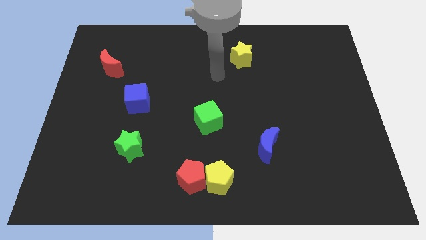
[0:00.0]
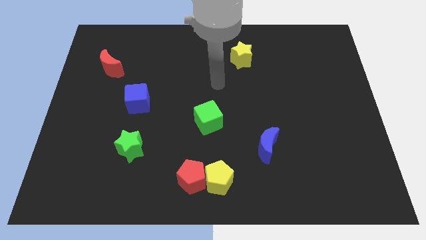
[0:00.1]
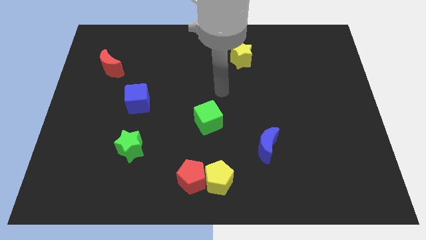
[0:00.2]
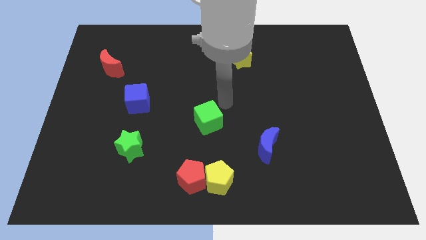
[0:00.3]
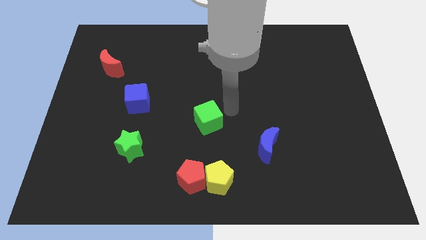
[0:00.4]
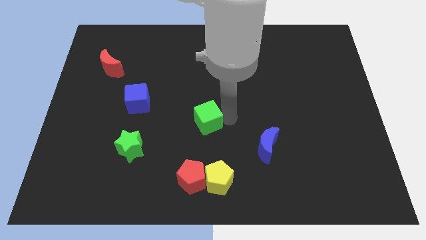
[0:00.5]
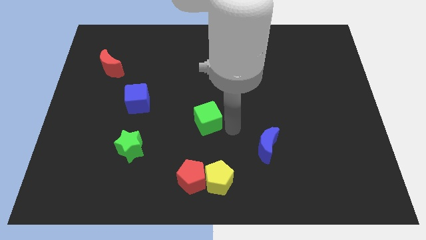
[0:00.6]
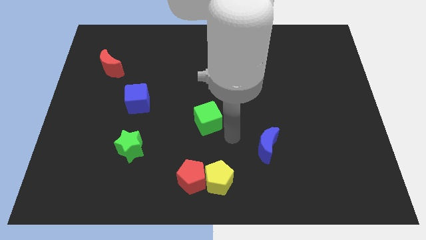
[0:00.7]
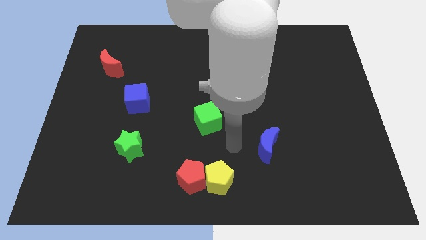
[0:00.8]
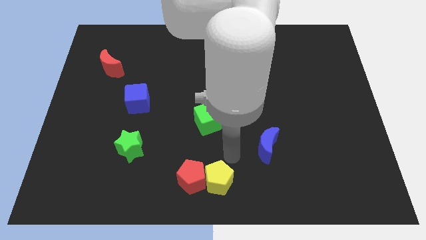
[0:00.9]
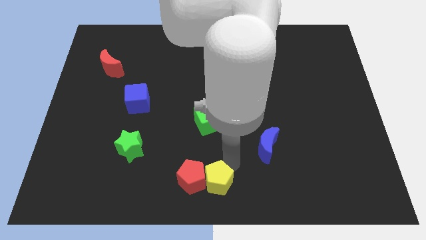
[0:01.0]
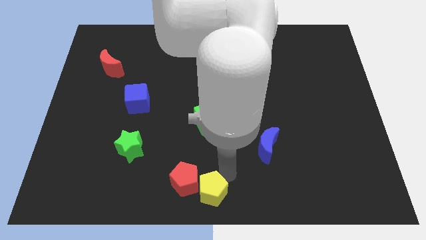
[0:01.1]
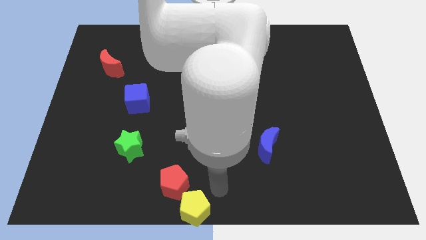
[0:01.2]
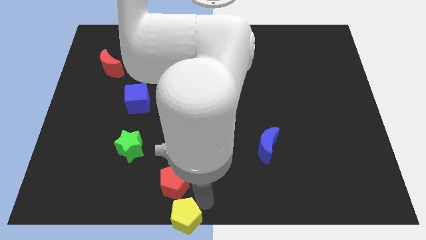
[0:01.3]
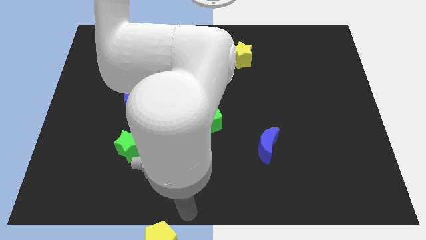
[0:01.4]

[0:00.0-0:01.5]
pull the red pentagon apart from the yellow pentagon

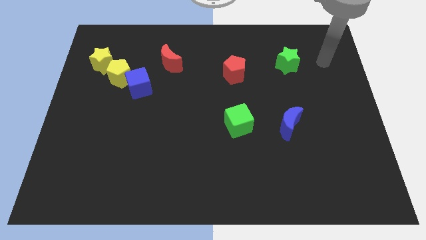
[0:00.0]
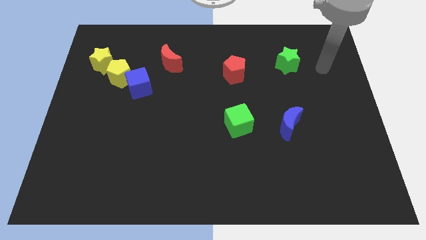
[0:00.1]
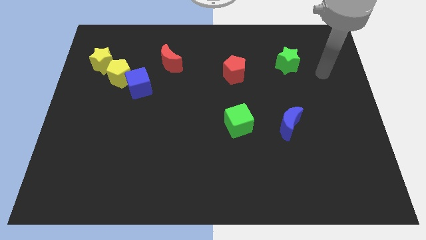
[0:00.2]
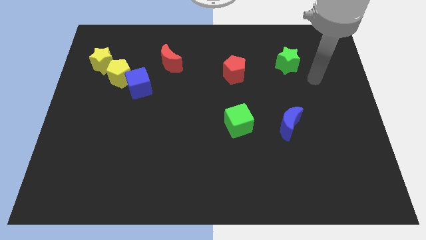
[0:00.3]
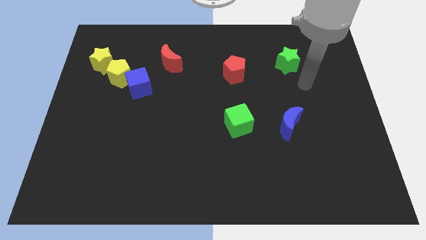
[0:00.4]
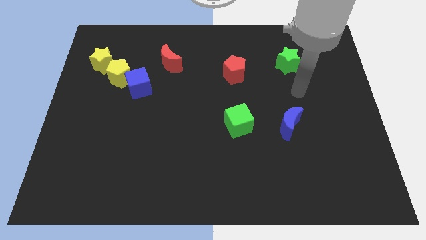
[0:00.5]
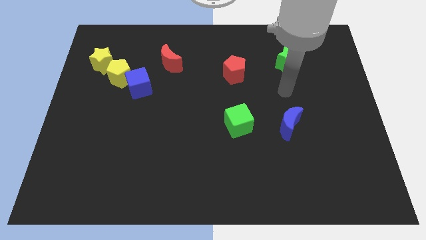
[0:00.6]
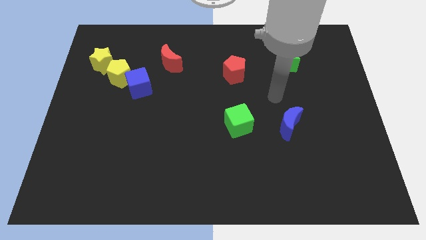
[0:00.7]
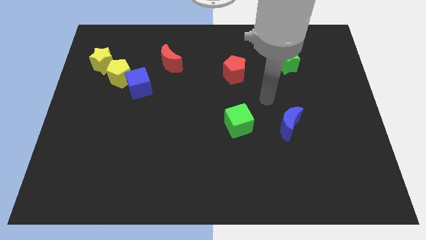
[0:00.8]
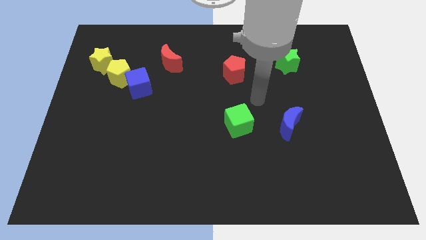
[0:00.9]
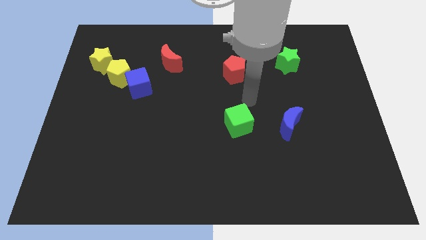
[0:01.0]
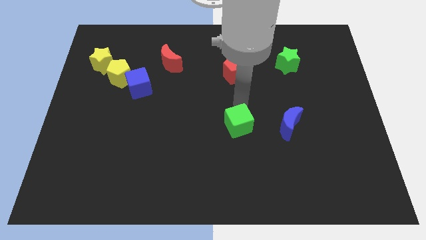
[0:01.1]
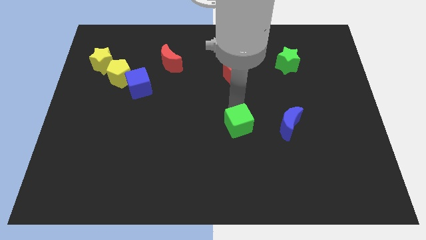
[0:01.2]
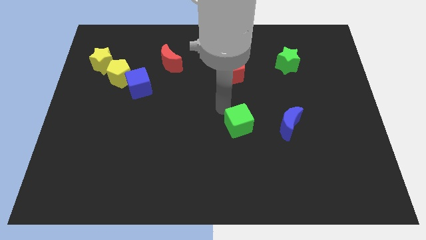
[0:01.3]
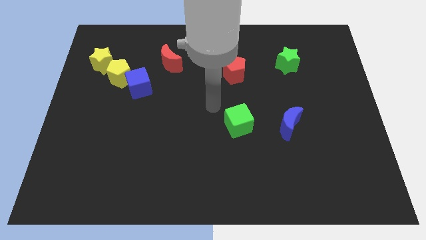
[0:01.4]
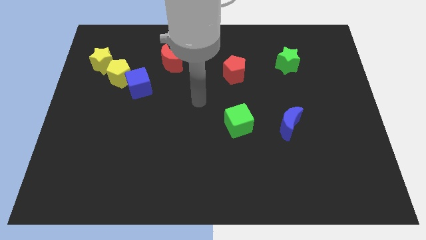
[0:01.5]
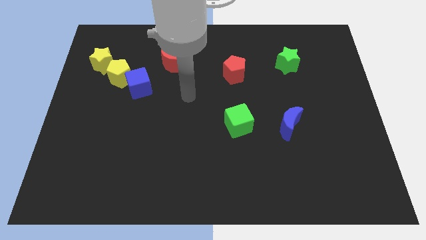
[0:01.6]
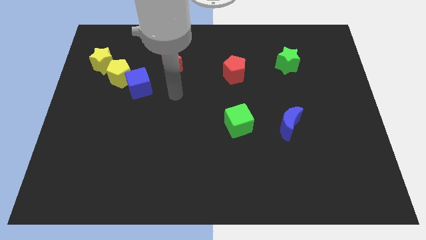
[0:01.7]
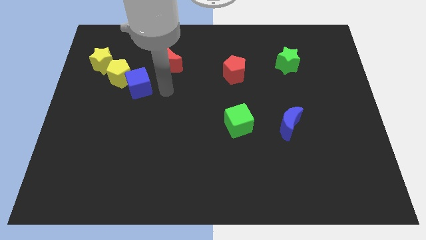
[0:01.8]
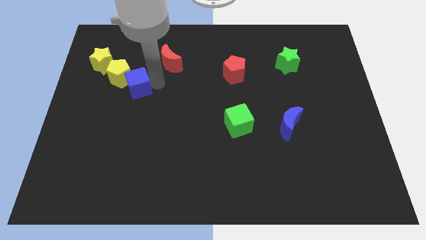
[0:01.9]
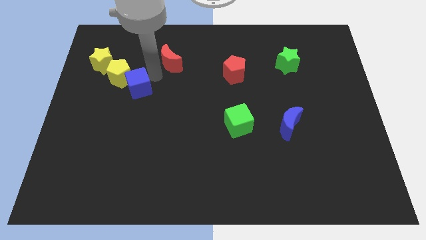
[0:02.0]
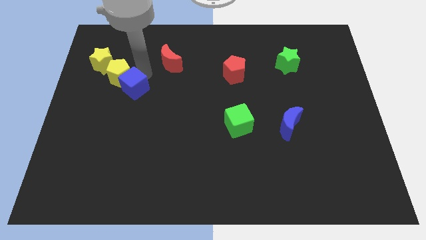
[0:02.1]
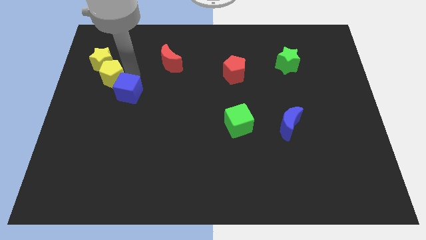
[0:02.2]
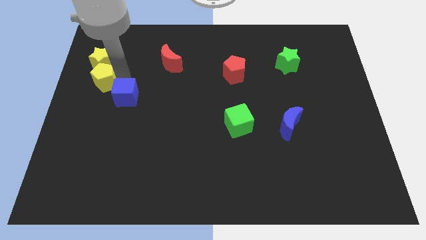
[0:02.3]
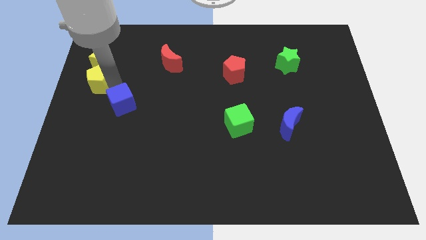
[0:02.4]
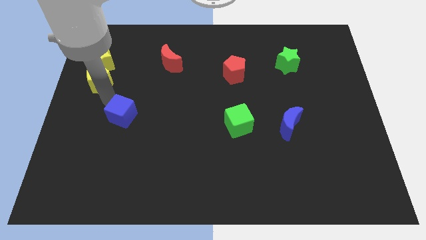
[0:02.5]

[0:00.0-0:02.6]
move the blue cube away from the yellow pentagon

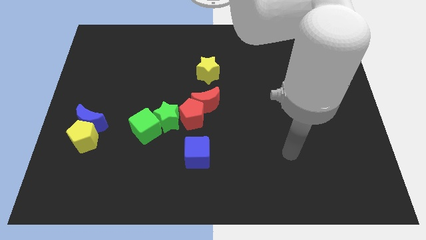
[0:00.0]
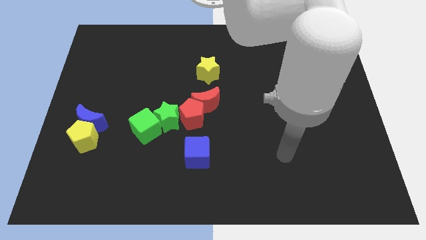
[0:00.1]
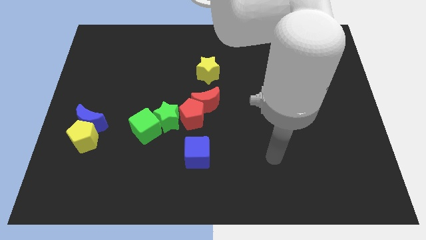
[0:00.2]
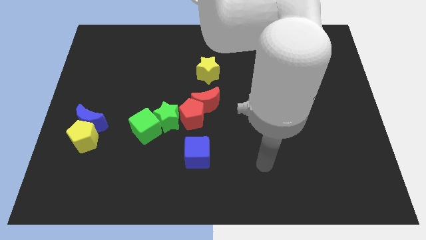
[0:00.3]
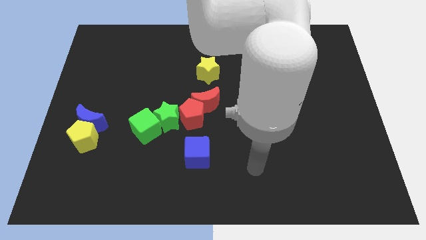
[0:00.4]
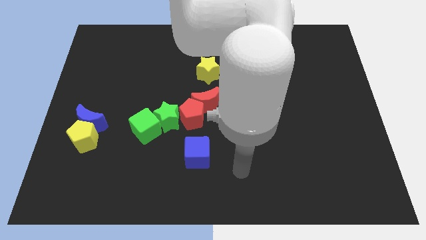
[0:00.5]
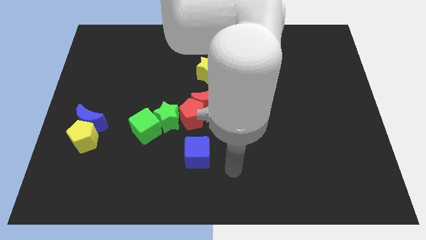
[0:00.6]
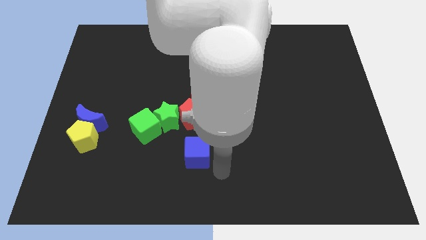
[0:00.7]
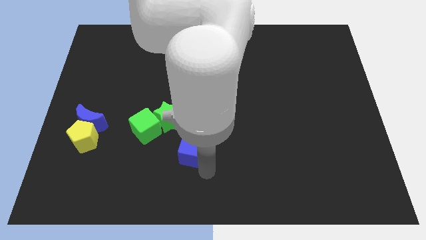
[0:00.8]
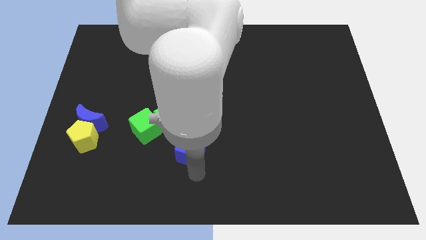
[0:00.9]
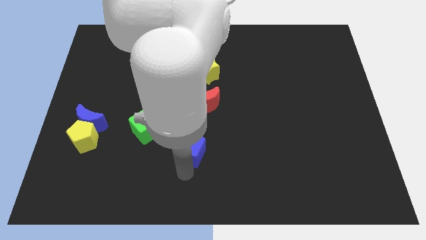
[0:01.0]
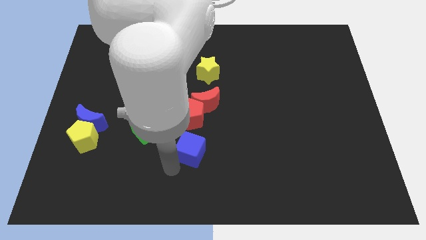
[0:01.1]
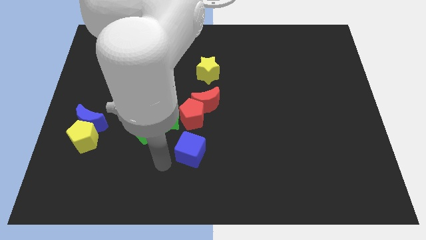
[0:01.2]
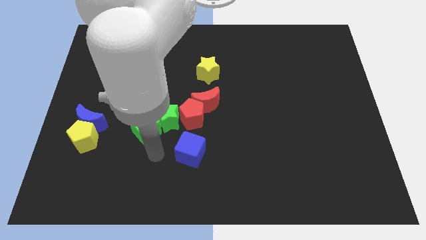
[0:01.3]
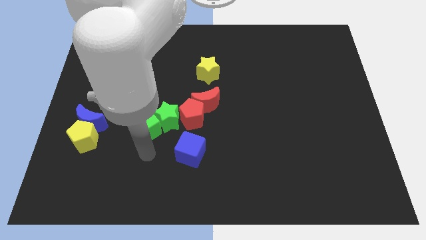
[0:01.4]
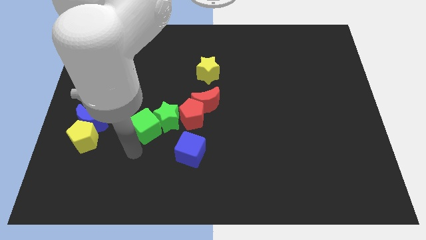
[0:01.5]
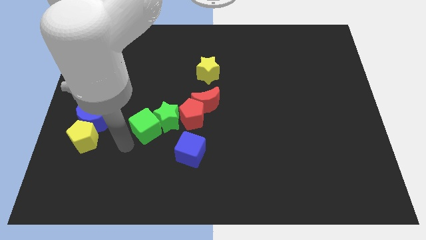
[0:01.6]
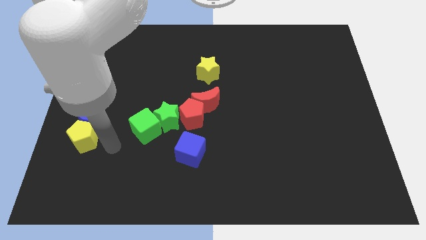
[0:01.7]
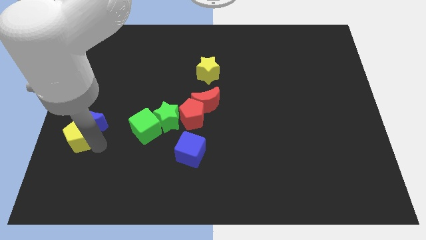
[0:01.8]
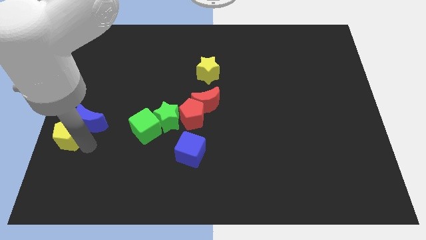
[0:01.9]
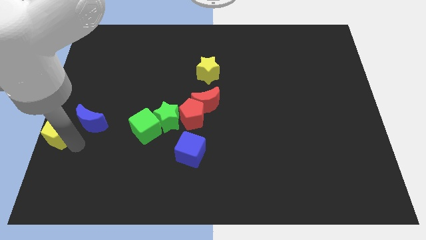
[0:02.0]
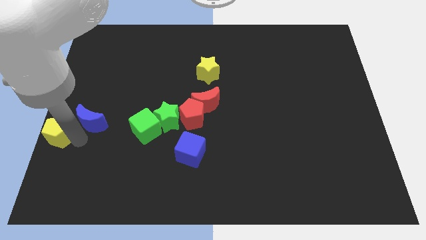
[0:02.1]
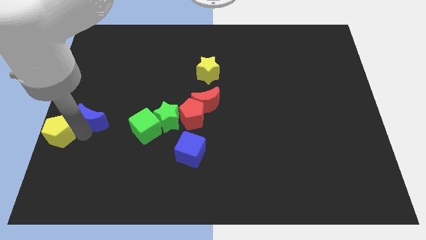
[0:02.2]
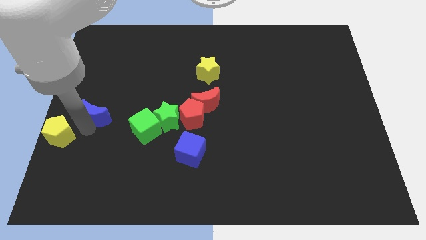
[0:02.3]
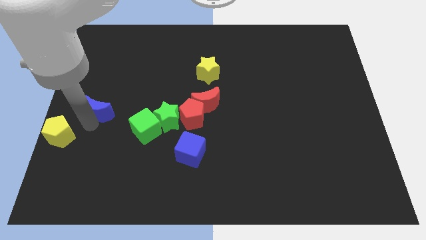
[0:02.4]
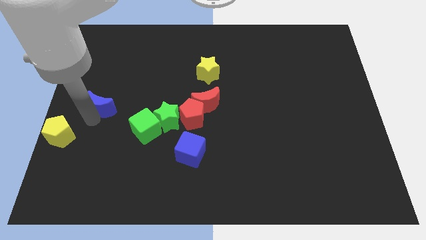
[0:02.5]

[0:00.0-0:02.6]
pull the blue moon apart from the yellow pentagon

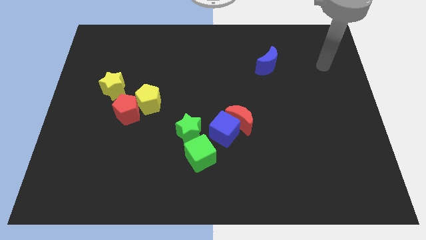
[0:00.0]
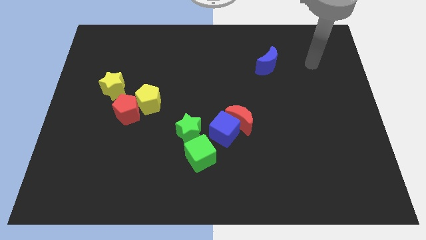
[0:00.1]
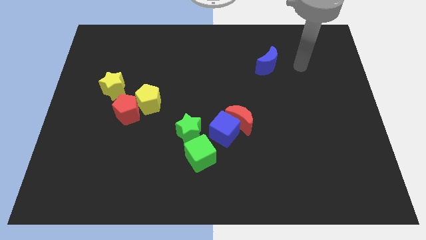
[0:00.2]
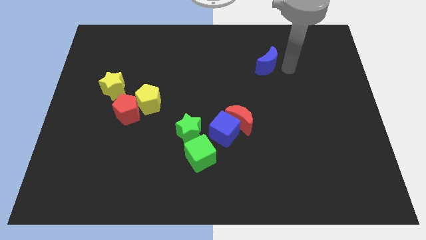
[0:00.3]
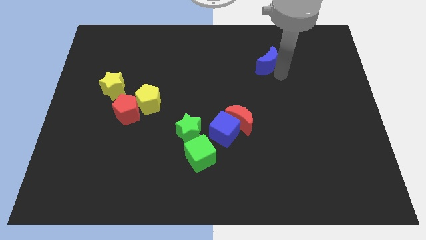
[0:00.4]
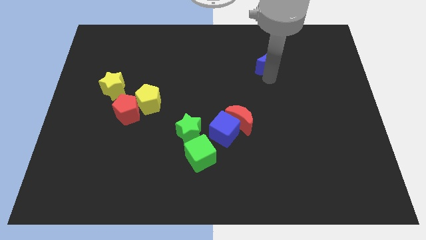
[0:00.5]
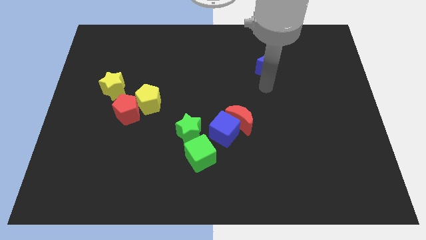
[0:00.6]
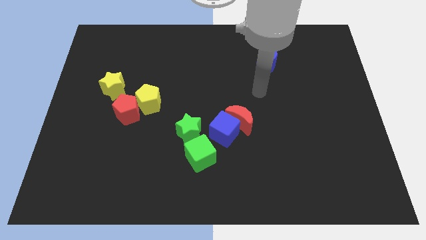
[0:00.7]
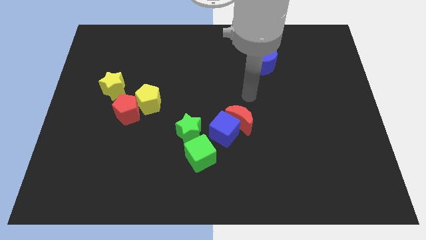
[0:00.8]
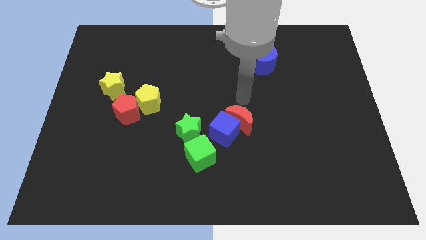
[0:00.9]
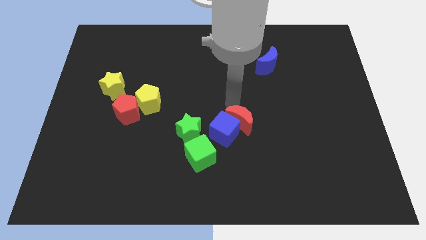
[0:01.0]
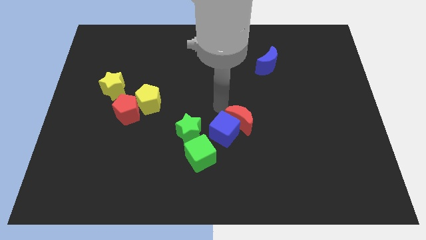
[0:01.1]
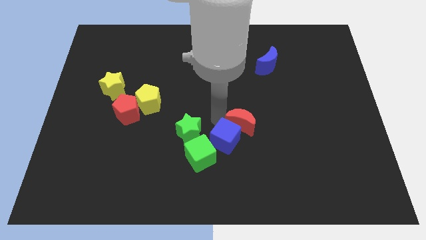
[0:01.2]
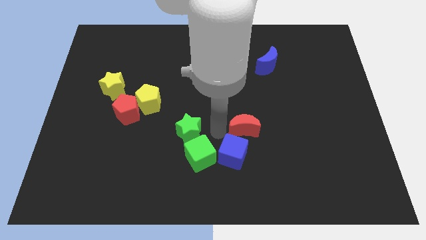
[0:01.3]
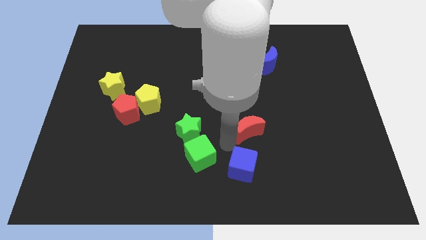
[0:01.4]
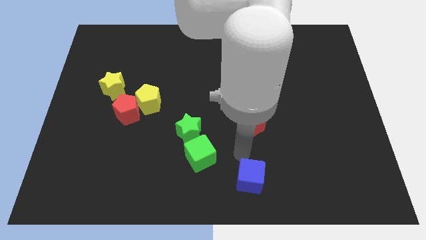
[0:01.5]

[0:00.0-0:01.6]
separate the red moon from the blue cube

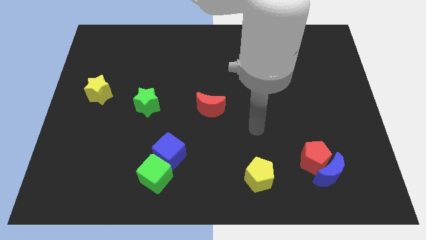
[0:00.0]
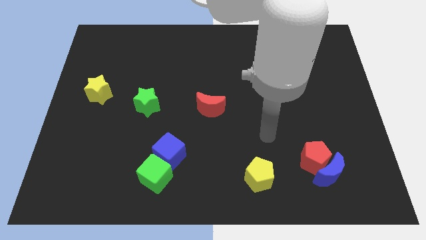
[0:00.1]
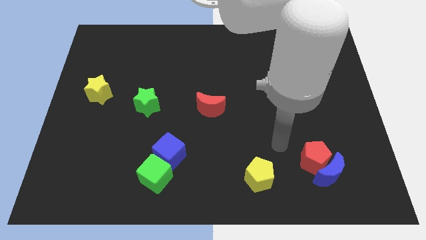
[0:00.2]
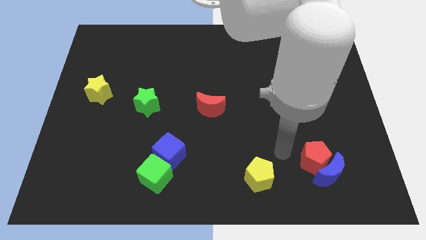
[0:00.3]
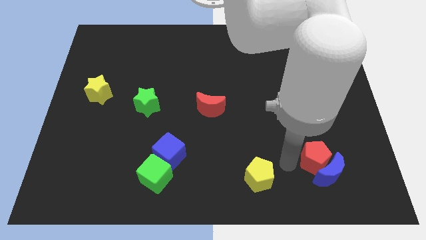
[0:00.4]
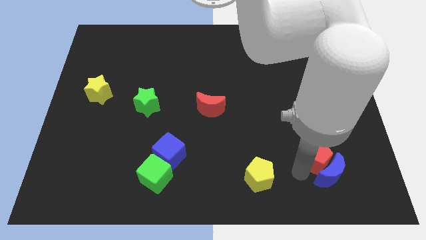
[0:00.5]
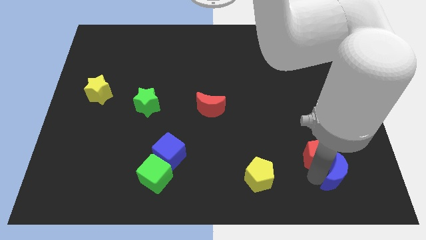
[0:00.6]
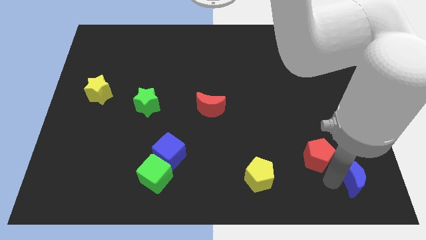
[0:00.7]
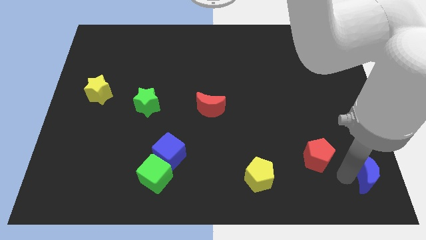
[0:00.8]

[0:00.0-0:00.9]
pull the red pentagon apart from the blue moon
